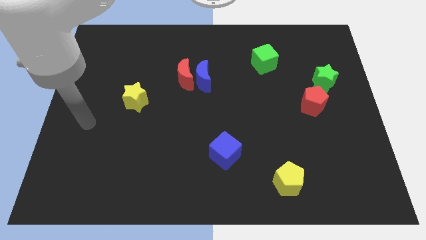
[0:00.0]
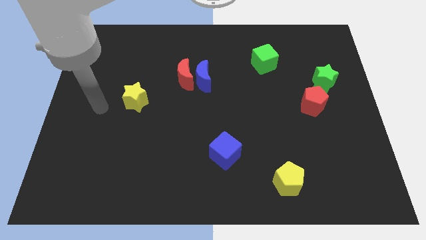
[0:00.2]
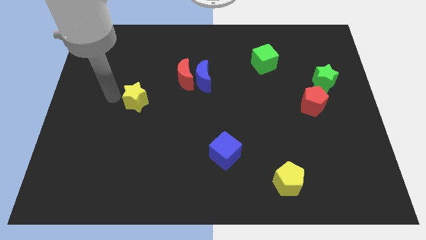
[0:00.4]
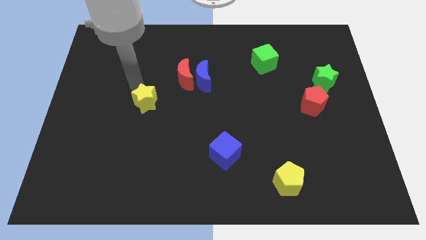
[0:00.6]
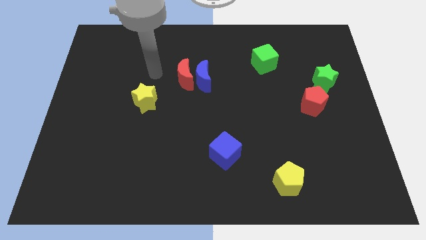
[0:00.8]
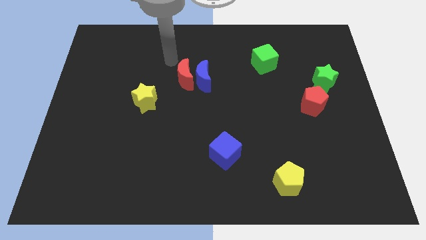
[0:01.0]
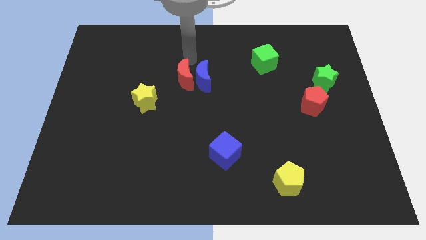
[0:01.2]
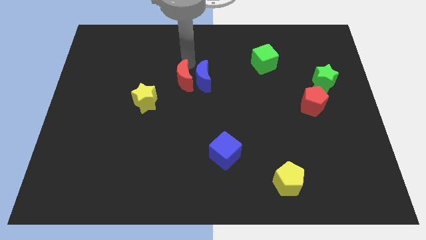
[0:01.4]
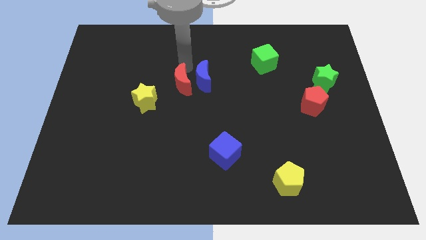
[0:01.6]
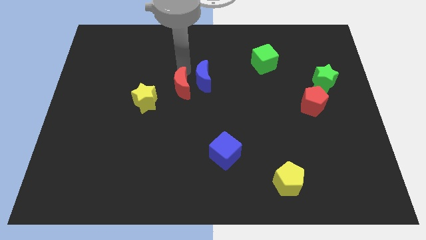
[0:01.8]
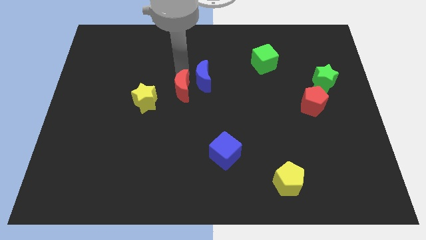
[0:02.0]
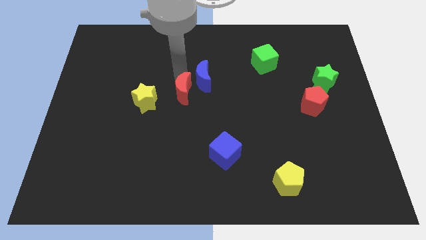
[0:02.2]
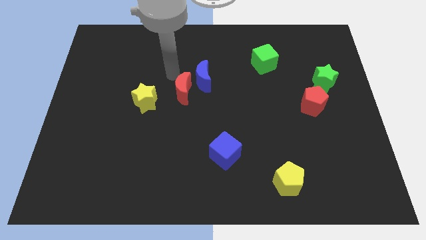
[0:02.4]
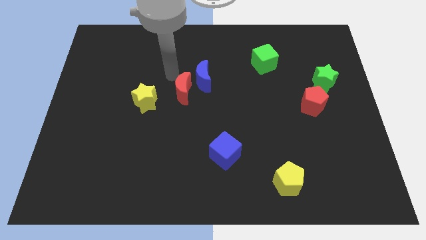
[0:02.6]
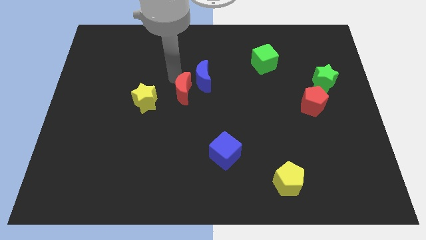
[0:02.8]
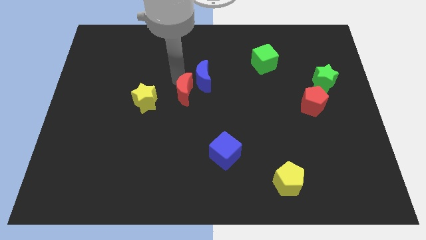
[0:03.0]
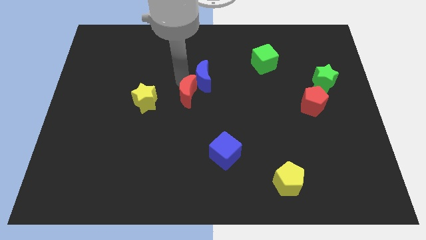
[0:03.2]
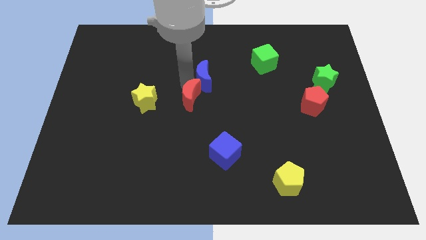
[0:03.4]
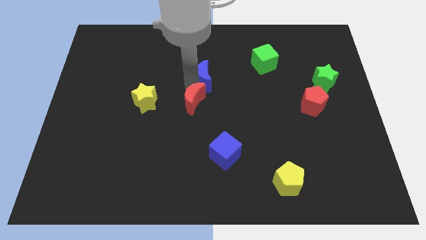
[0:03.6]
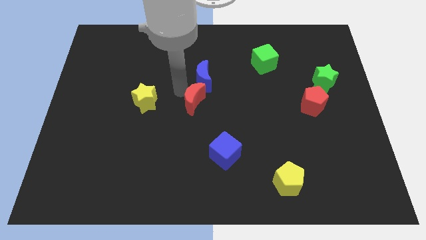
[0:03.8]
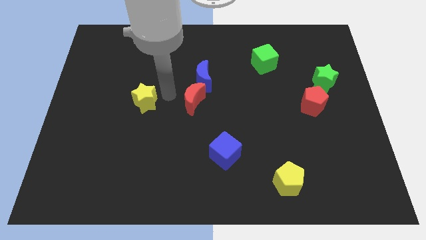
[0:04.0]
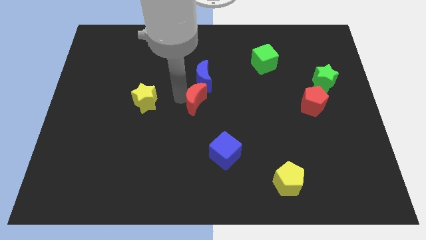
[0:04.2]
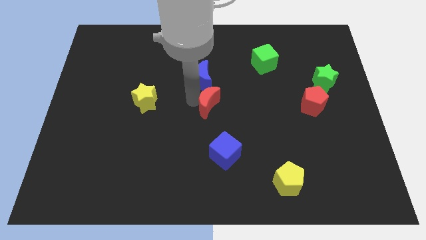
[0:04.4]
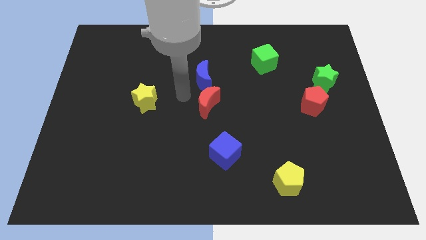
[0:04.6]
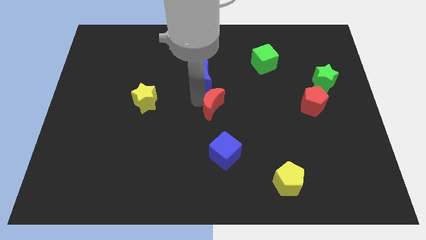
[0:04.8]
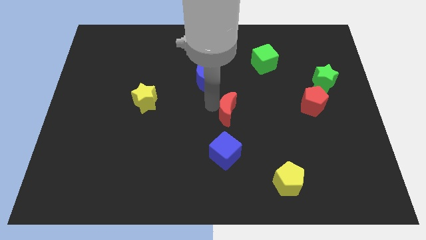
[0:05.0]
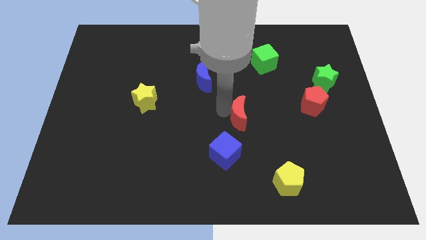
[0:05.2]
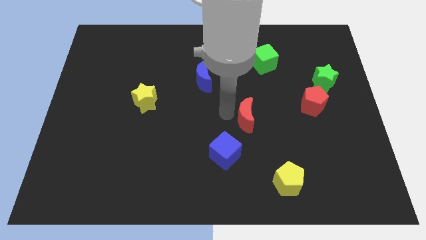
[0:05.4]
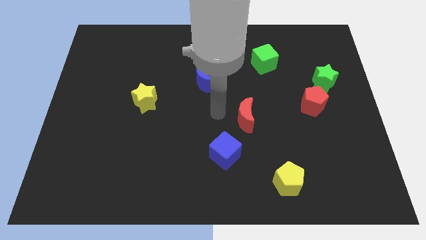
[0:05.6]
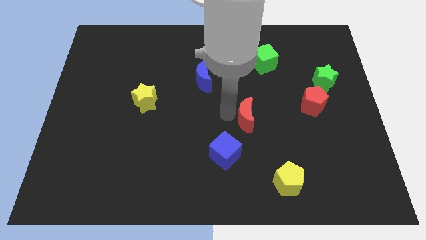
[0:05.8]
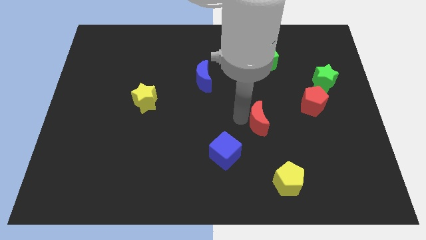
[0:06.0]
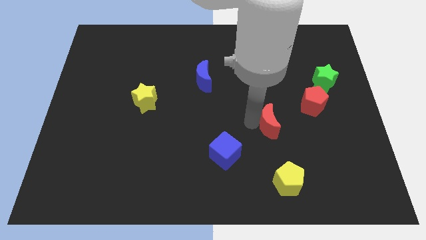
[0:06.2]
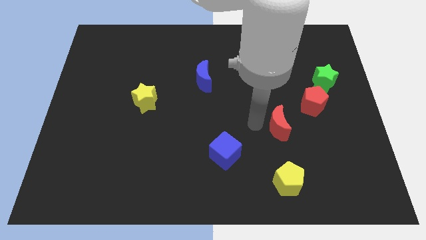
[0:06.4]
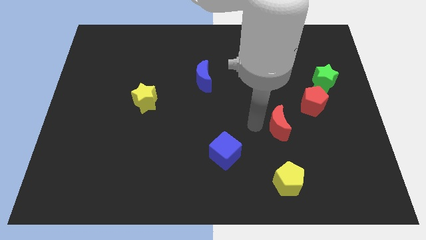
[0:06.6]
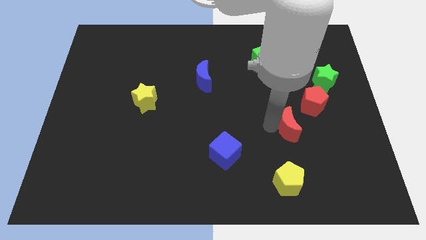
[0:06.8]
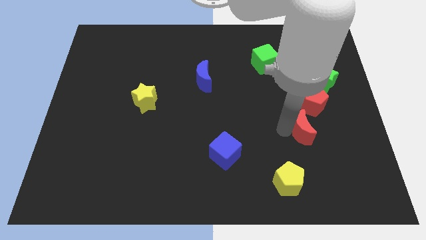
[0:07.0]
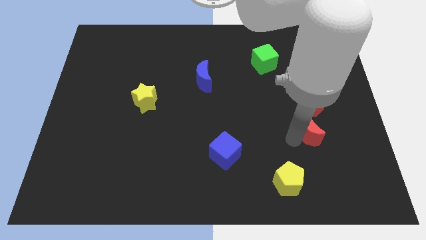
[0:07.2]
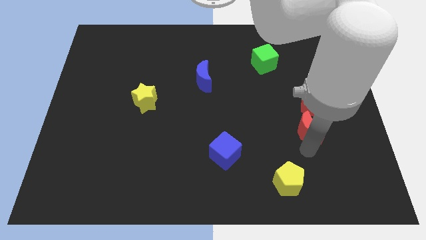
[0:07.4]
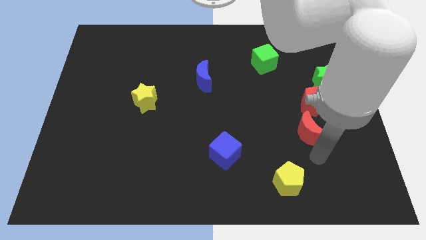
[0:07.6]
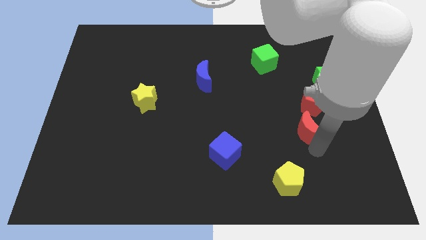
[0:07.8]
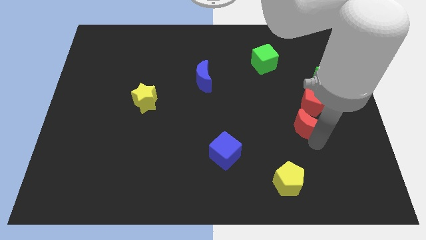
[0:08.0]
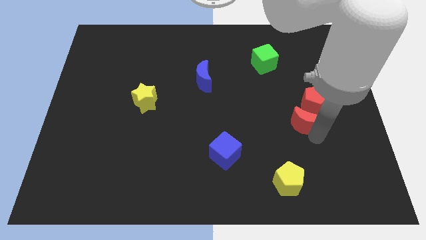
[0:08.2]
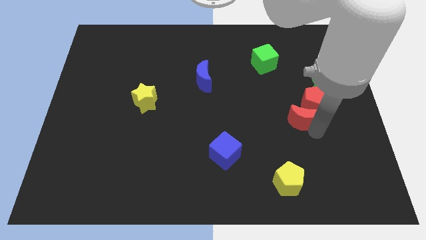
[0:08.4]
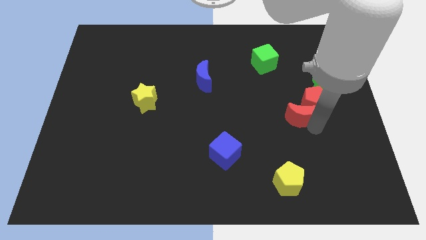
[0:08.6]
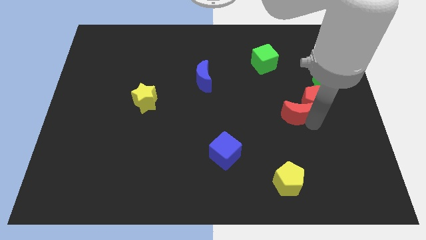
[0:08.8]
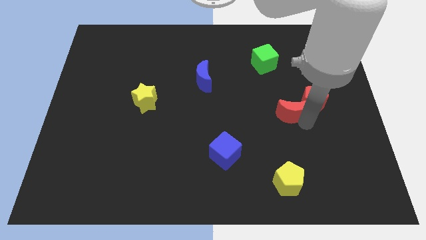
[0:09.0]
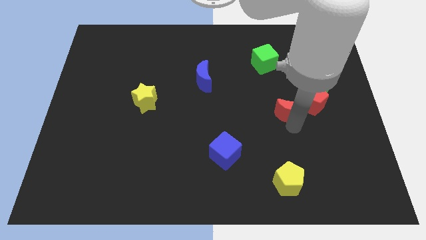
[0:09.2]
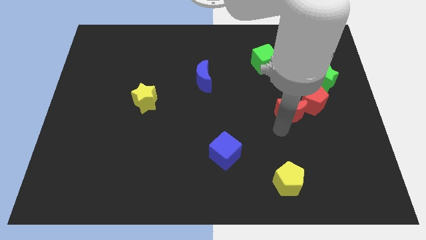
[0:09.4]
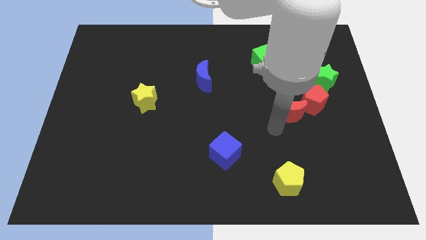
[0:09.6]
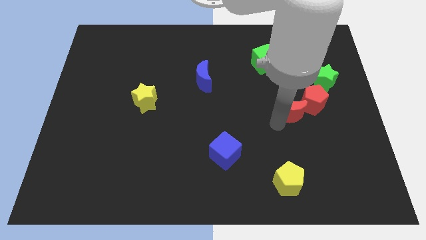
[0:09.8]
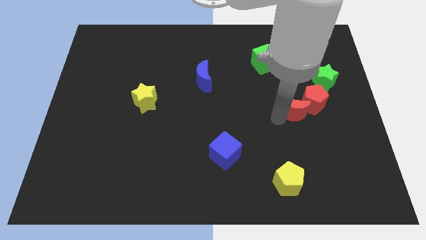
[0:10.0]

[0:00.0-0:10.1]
slide the red moon to the bottom left side of the green star

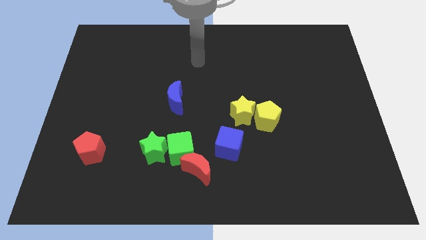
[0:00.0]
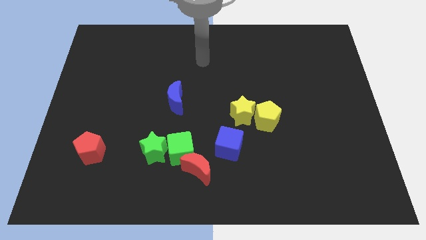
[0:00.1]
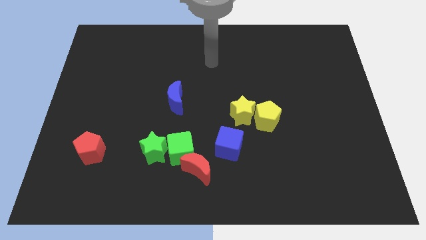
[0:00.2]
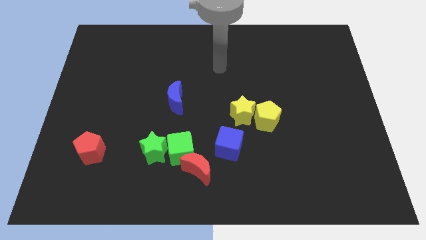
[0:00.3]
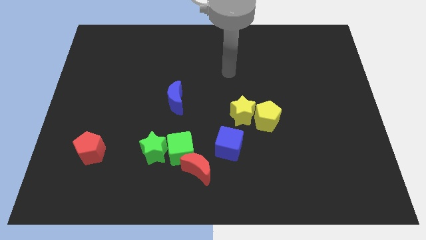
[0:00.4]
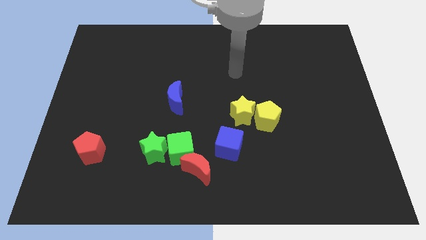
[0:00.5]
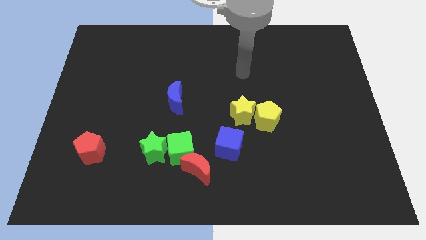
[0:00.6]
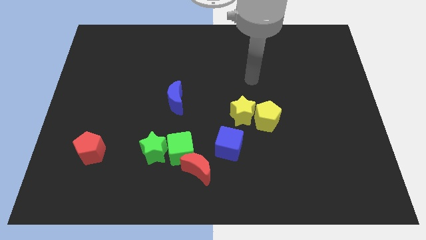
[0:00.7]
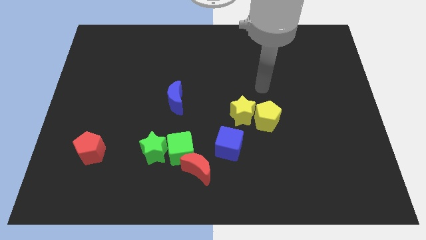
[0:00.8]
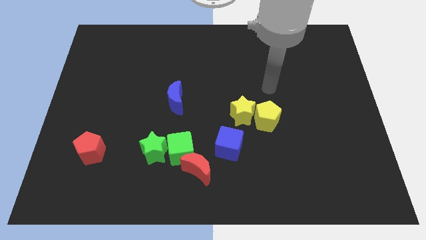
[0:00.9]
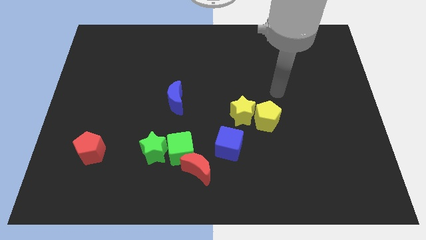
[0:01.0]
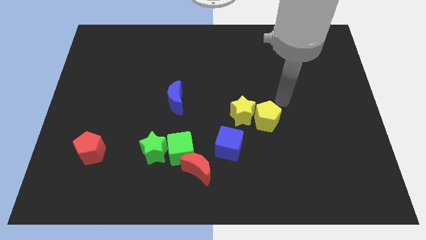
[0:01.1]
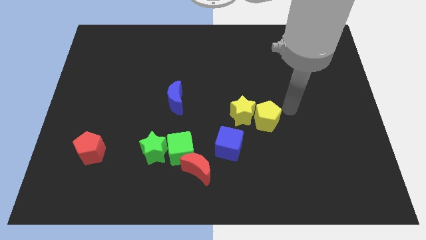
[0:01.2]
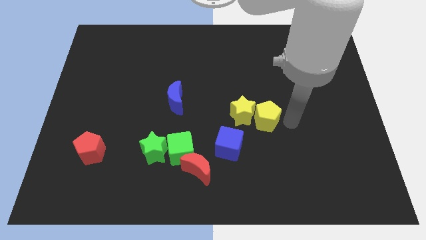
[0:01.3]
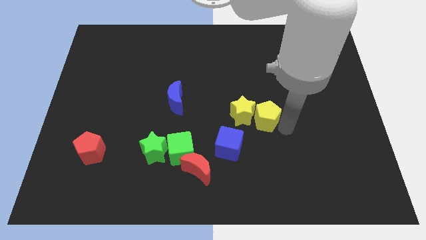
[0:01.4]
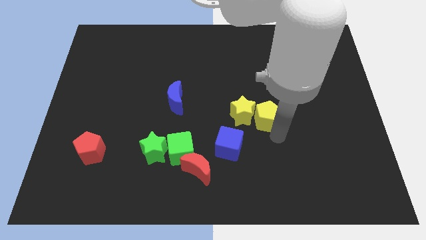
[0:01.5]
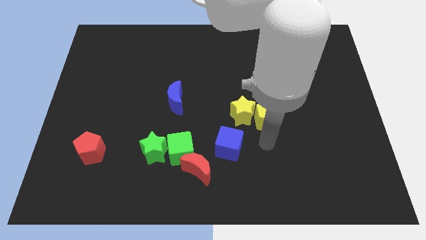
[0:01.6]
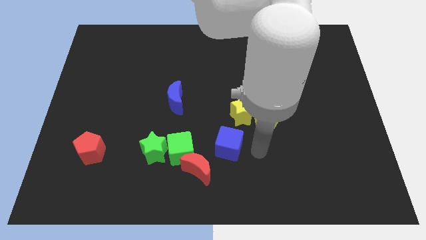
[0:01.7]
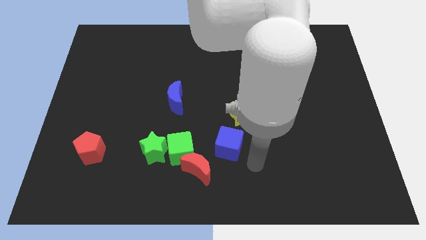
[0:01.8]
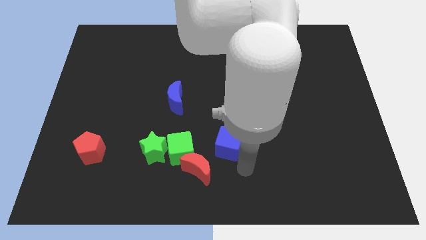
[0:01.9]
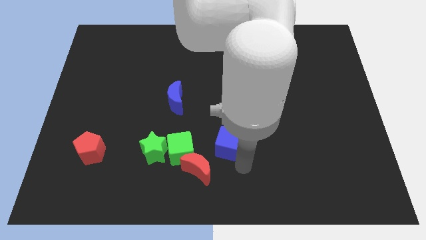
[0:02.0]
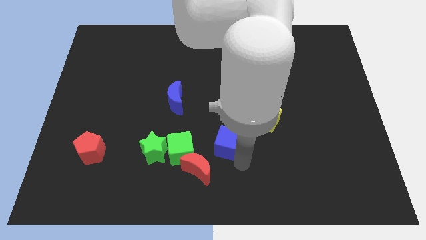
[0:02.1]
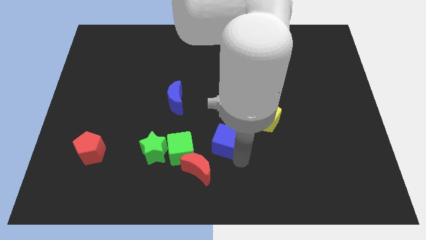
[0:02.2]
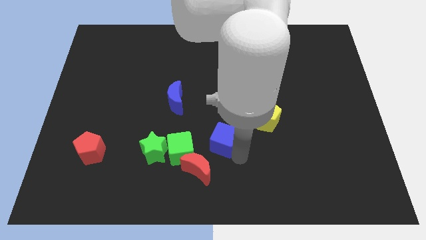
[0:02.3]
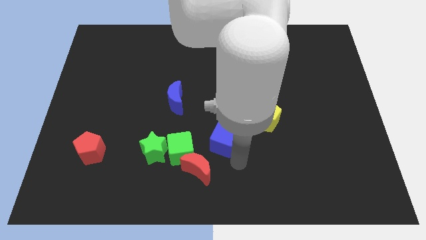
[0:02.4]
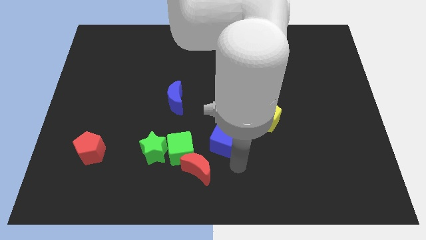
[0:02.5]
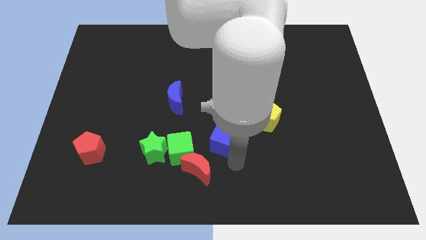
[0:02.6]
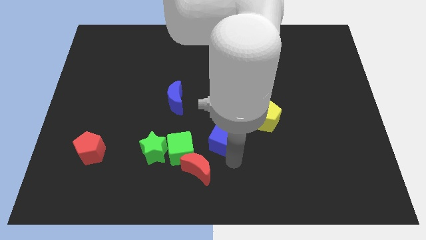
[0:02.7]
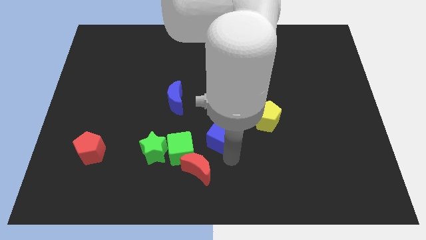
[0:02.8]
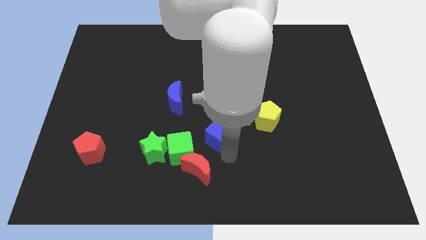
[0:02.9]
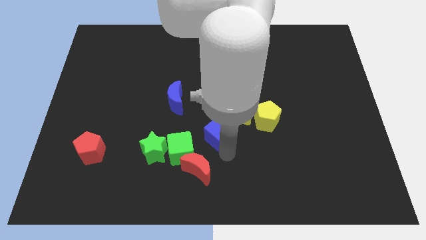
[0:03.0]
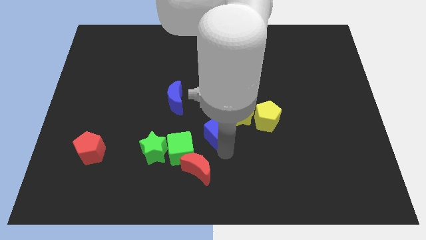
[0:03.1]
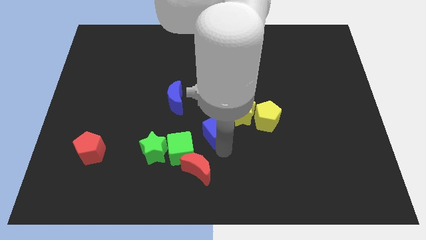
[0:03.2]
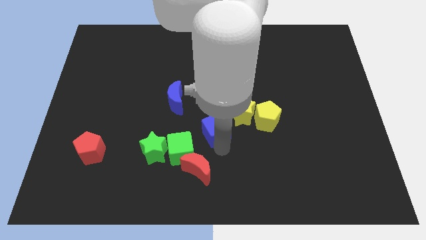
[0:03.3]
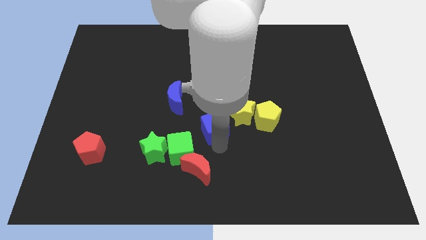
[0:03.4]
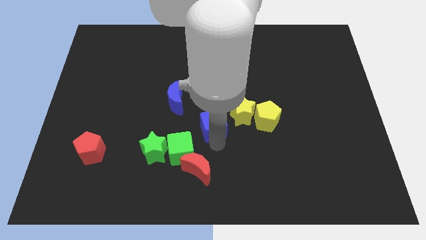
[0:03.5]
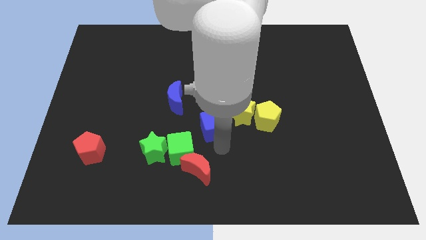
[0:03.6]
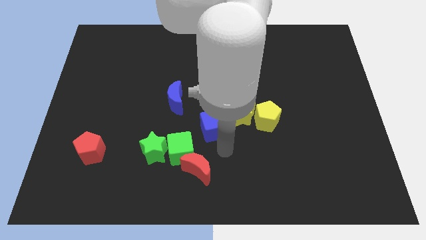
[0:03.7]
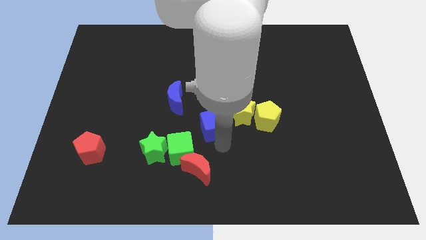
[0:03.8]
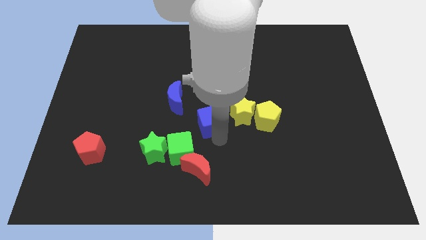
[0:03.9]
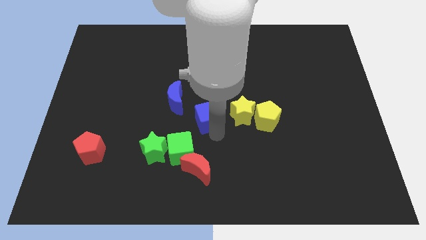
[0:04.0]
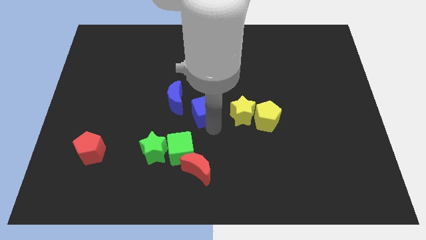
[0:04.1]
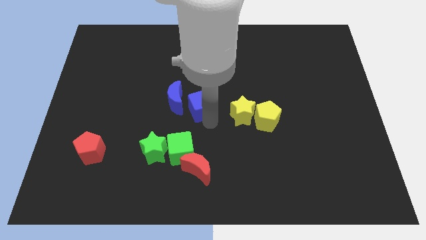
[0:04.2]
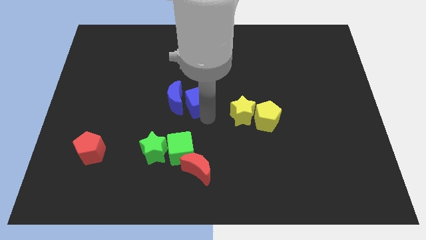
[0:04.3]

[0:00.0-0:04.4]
push the blue cube to the top right side of the blue moon
